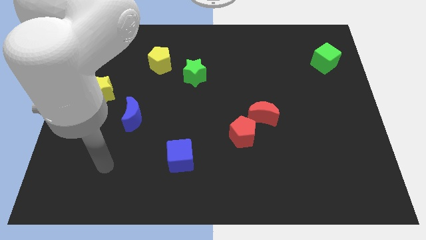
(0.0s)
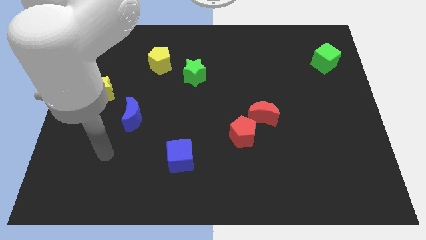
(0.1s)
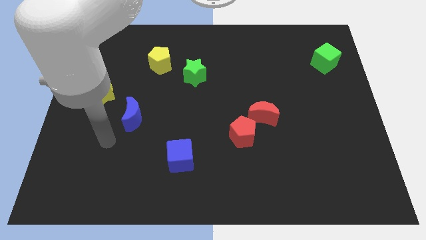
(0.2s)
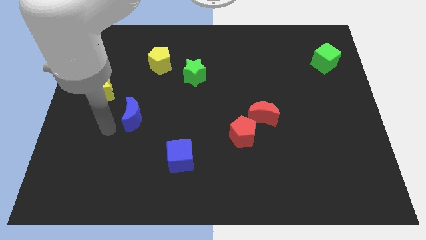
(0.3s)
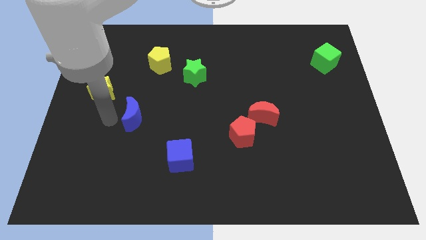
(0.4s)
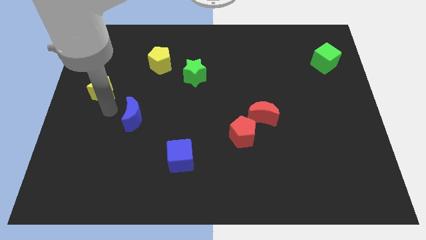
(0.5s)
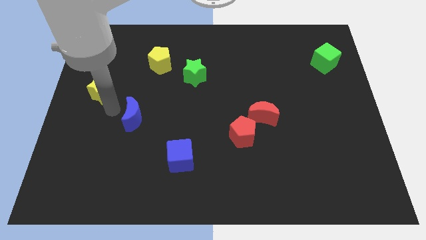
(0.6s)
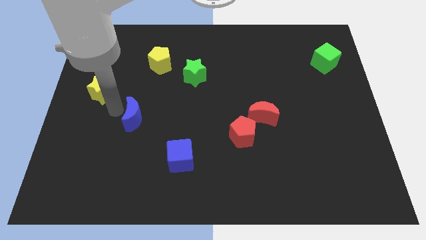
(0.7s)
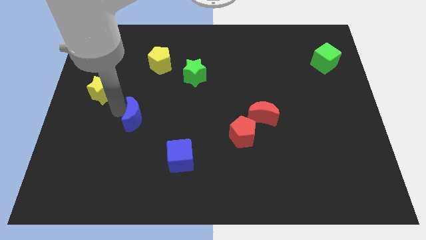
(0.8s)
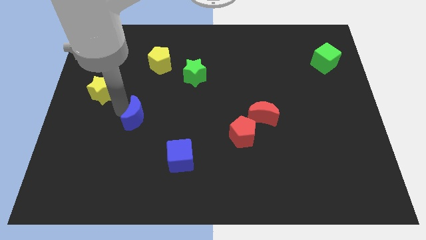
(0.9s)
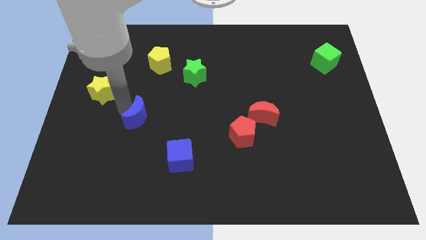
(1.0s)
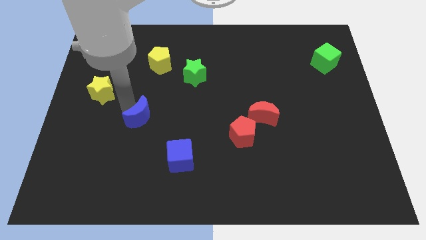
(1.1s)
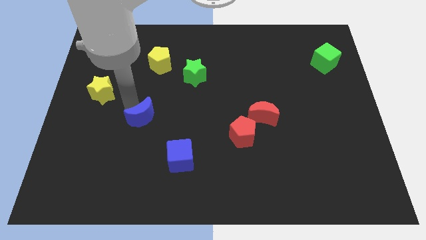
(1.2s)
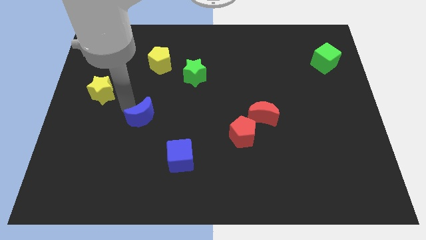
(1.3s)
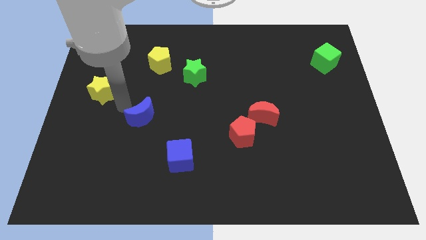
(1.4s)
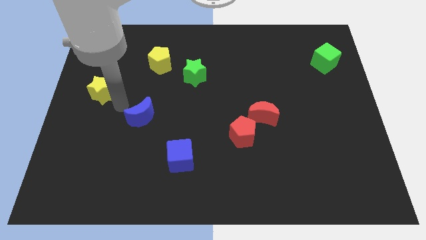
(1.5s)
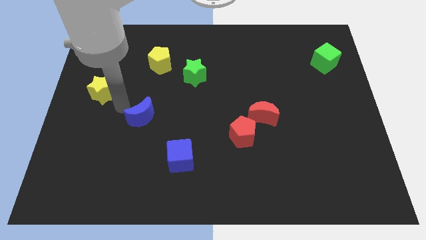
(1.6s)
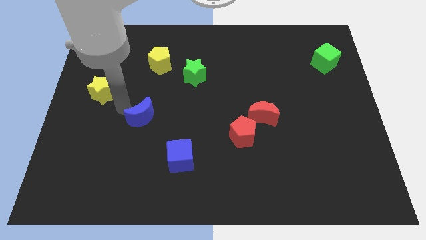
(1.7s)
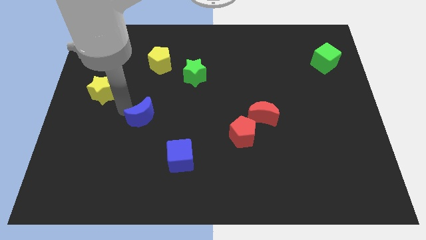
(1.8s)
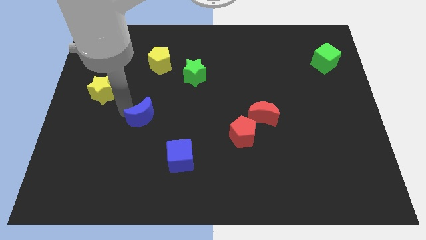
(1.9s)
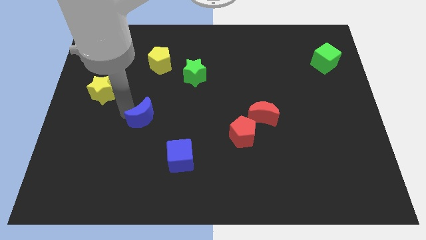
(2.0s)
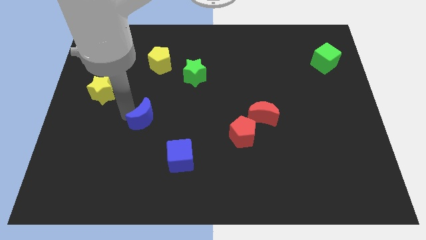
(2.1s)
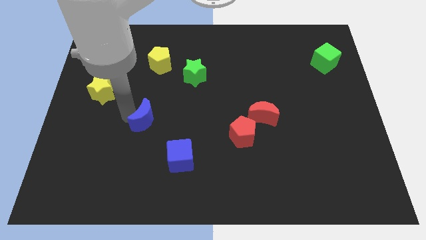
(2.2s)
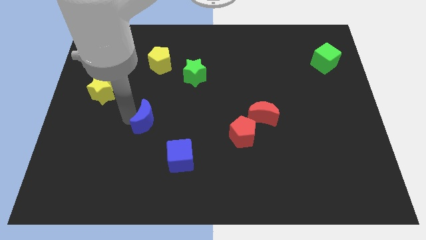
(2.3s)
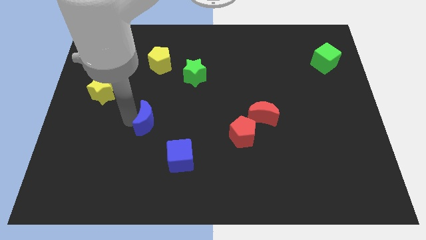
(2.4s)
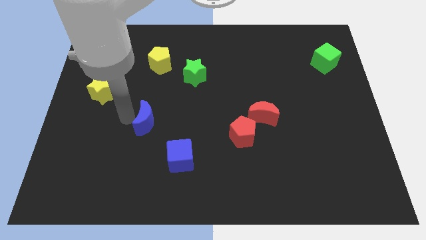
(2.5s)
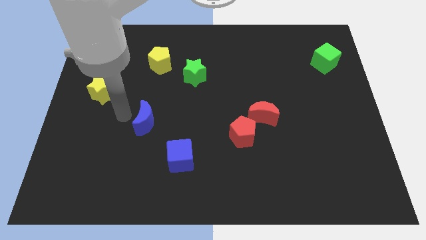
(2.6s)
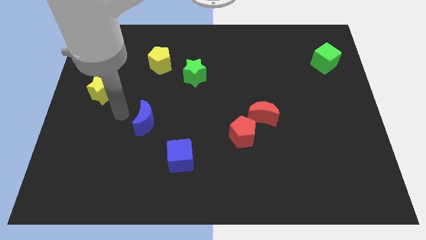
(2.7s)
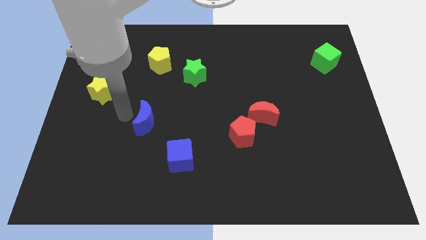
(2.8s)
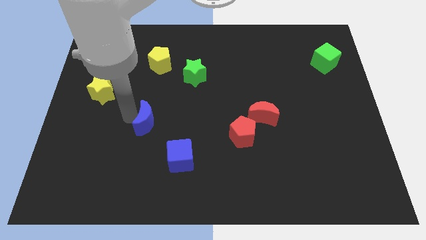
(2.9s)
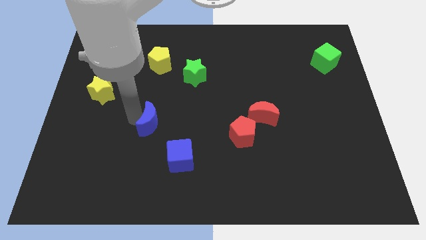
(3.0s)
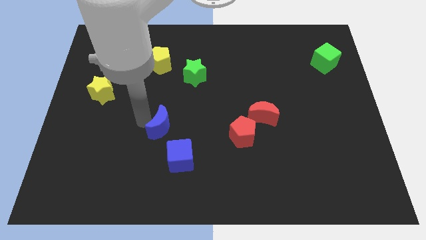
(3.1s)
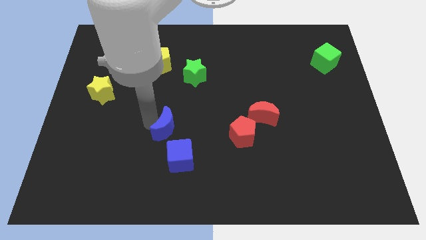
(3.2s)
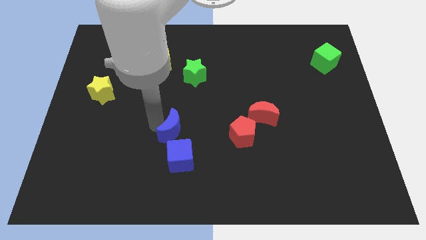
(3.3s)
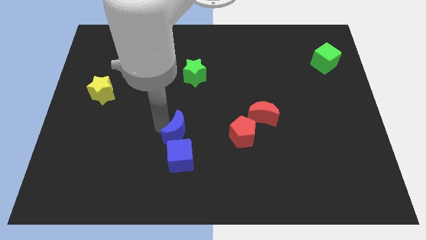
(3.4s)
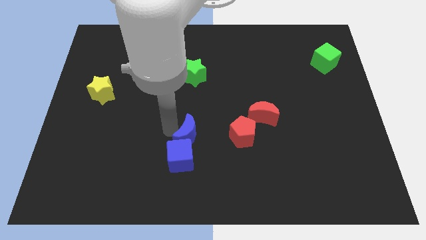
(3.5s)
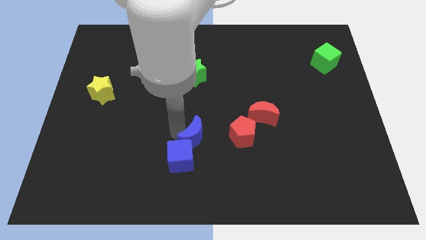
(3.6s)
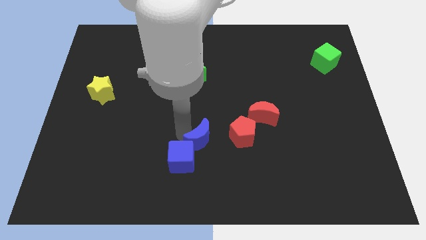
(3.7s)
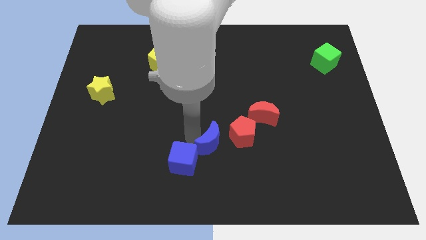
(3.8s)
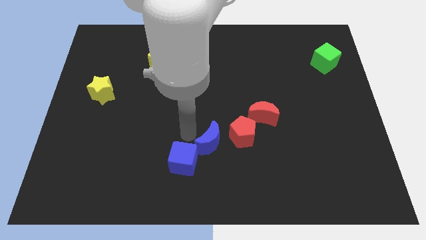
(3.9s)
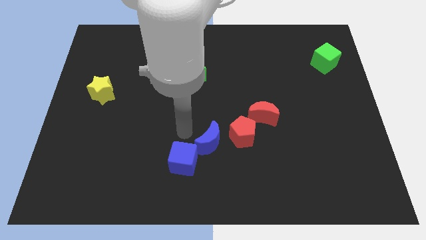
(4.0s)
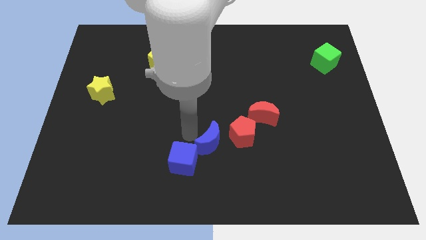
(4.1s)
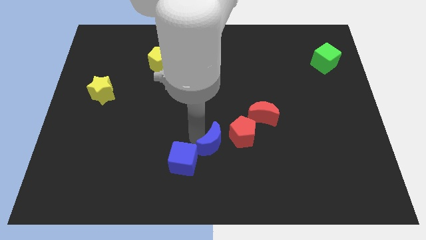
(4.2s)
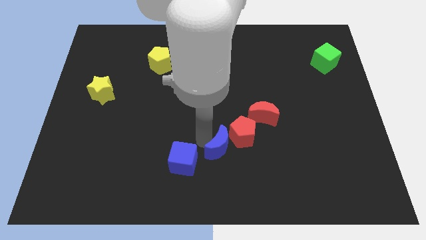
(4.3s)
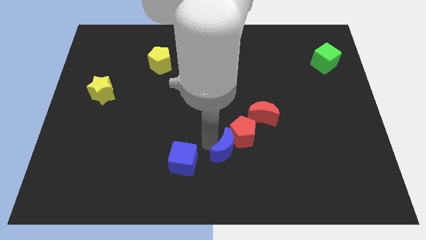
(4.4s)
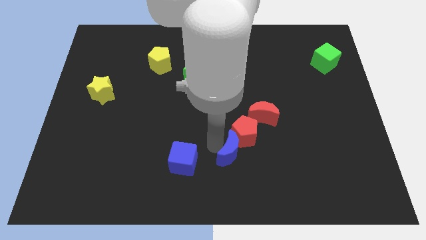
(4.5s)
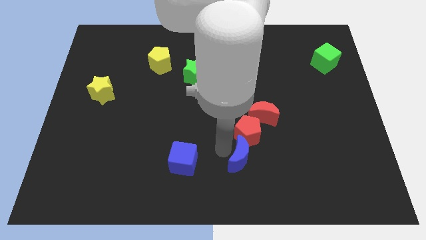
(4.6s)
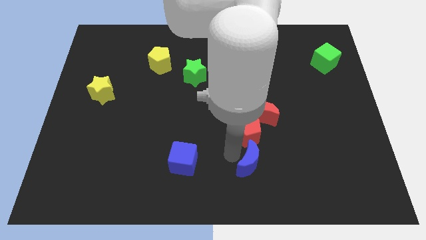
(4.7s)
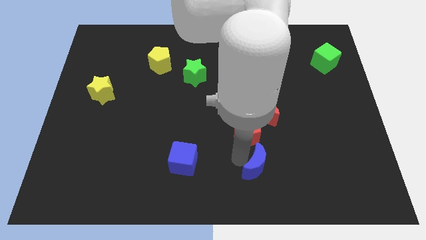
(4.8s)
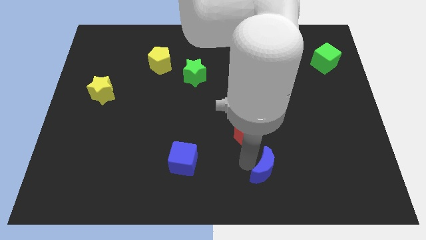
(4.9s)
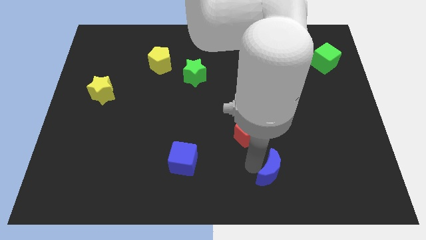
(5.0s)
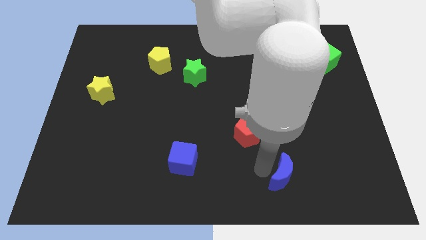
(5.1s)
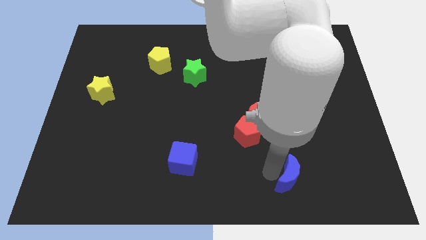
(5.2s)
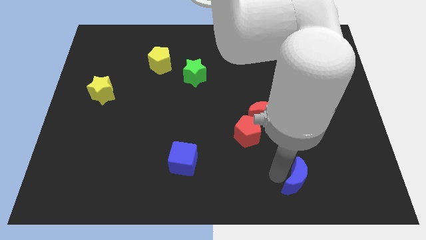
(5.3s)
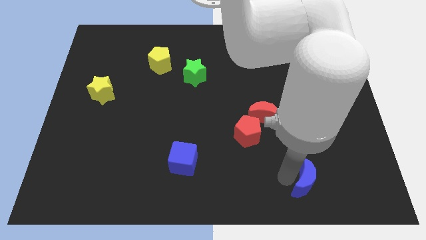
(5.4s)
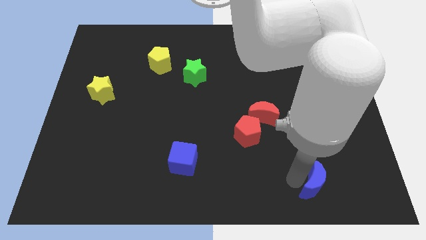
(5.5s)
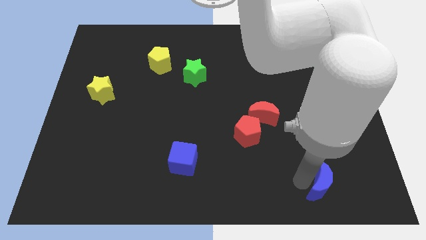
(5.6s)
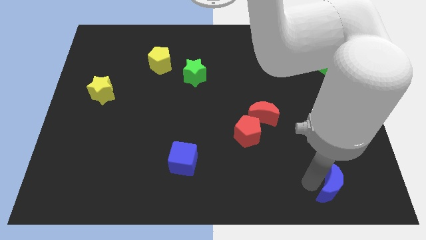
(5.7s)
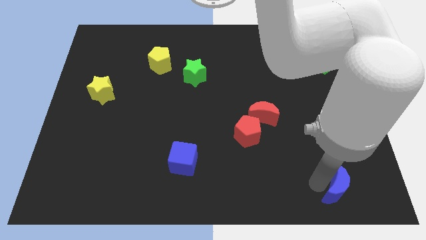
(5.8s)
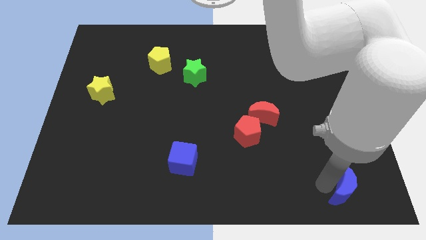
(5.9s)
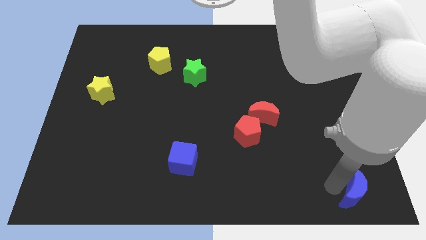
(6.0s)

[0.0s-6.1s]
slide the blue moon to the bottom right
